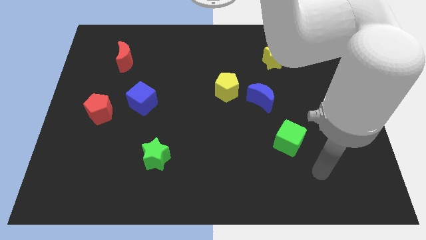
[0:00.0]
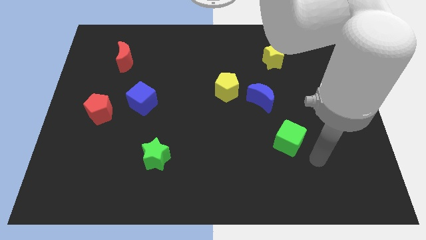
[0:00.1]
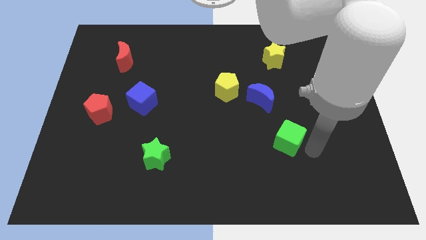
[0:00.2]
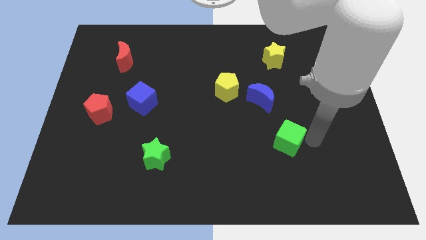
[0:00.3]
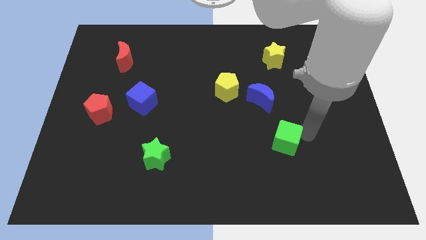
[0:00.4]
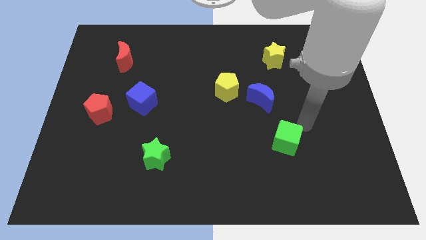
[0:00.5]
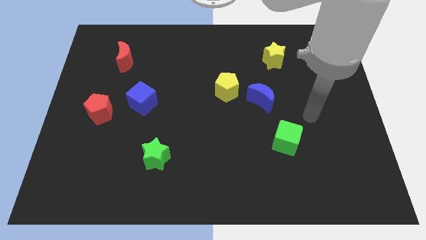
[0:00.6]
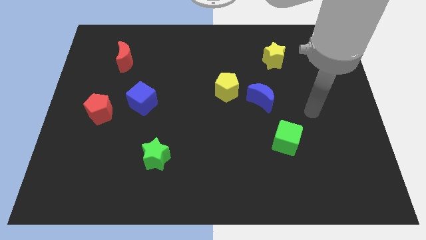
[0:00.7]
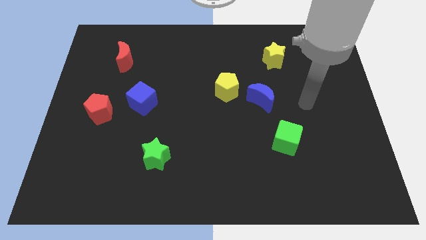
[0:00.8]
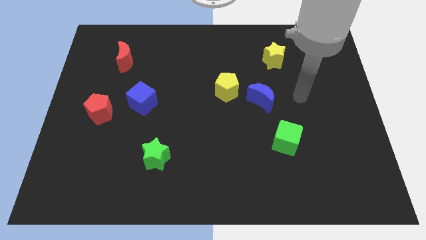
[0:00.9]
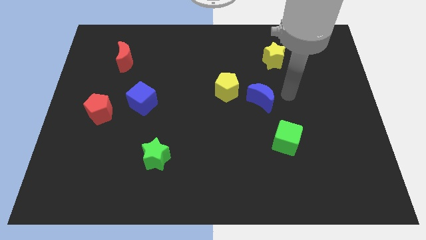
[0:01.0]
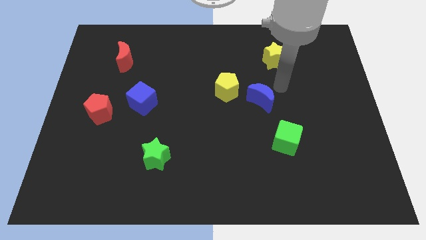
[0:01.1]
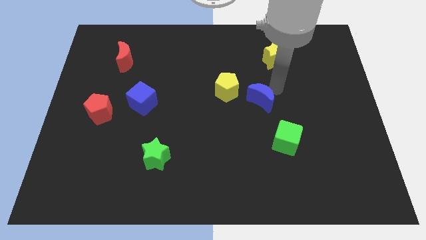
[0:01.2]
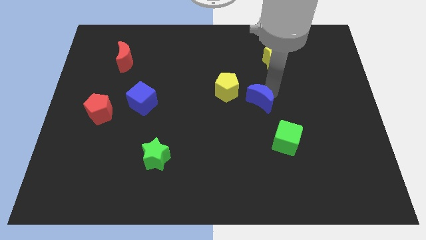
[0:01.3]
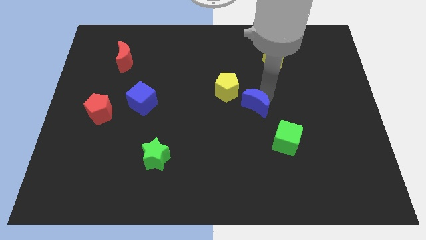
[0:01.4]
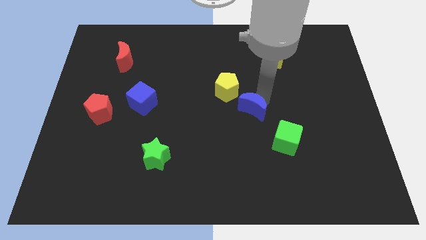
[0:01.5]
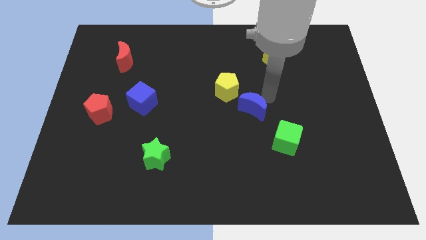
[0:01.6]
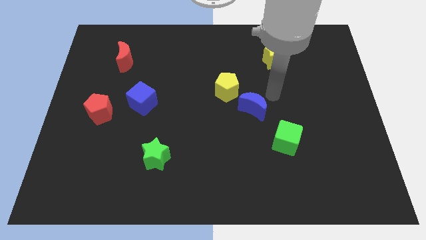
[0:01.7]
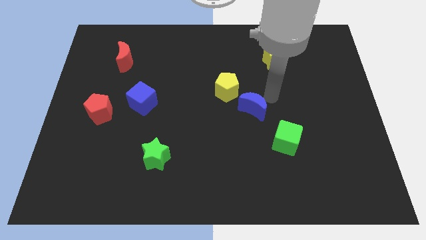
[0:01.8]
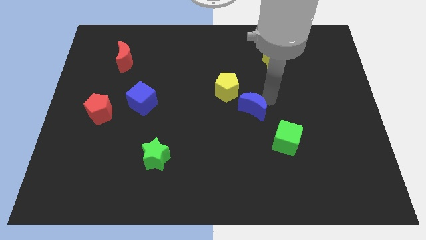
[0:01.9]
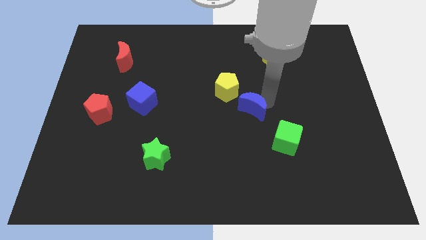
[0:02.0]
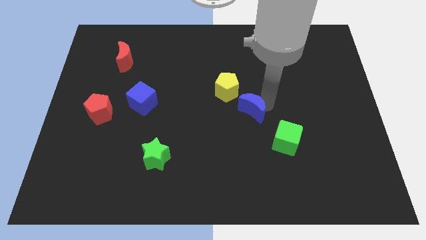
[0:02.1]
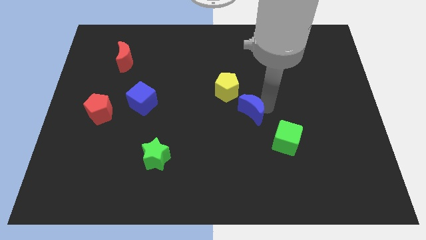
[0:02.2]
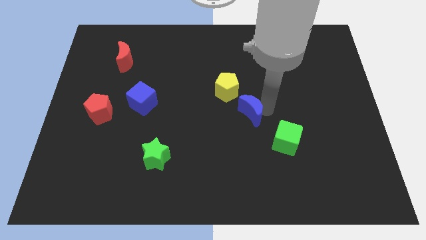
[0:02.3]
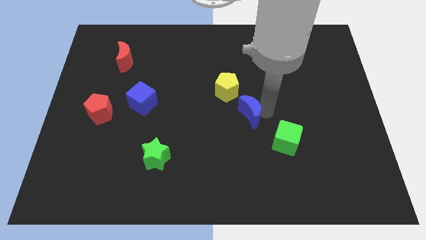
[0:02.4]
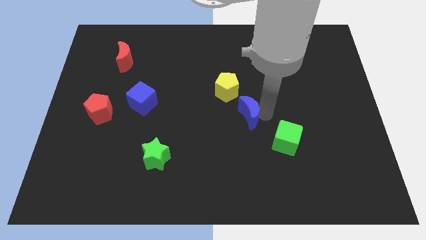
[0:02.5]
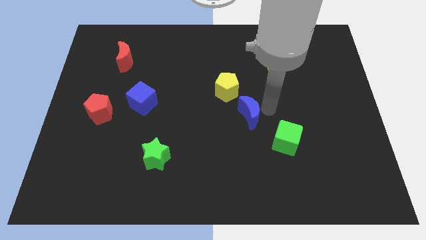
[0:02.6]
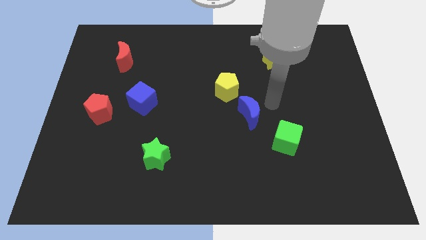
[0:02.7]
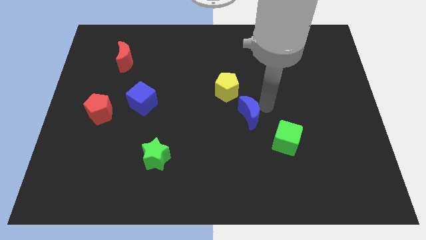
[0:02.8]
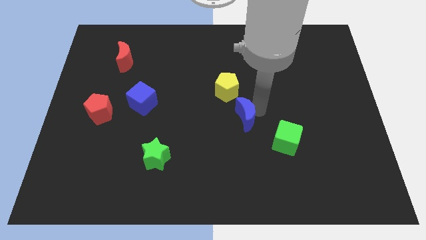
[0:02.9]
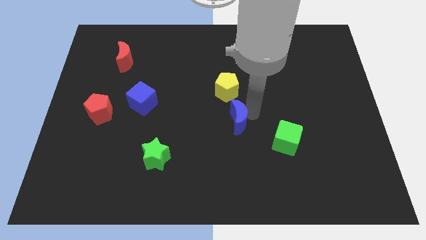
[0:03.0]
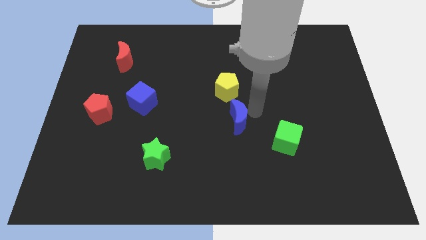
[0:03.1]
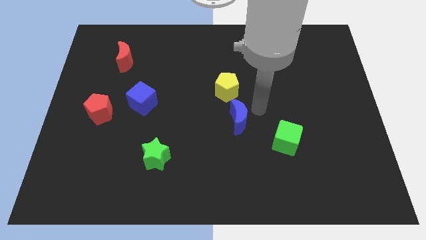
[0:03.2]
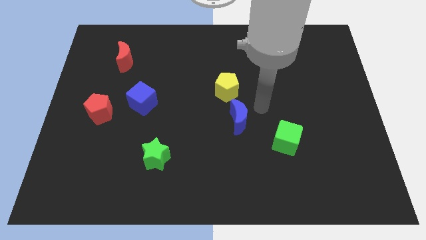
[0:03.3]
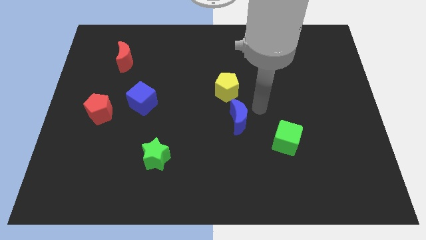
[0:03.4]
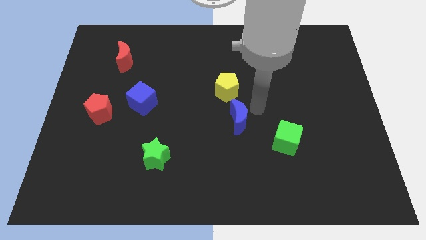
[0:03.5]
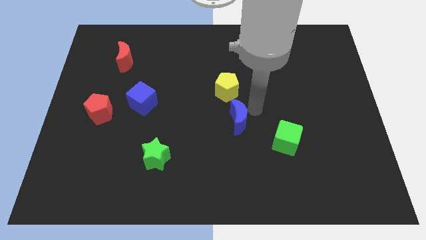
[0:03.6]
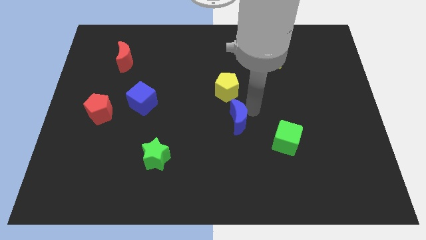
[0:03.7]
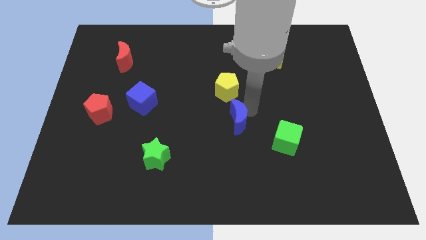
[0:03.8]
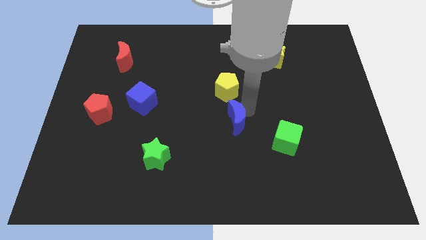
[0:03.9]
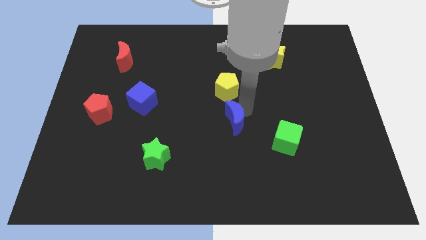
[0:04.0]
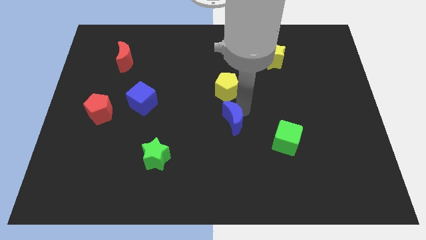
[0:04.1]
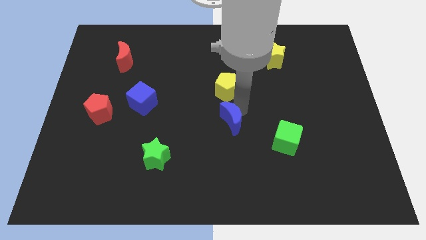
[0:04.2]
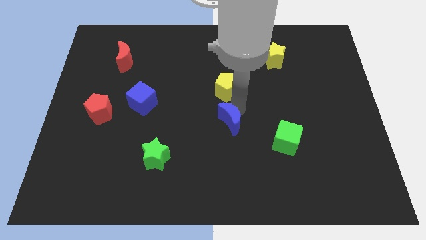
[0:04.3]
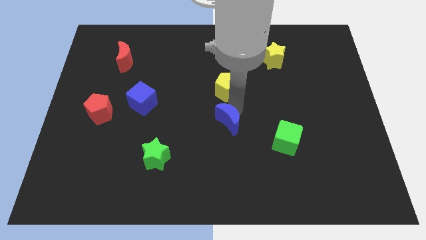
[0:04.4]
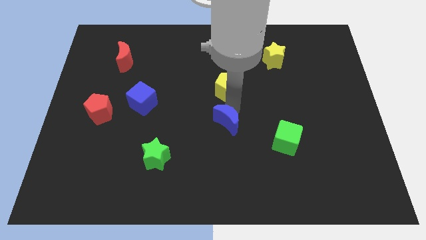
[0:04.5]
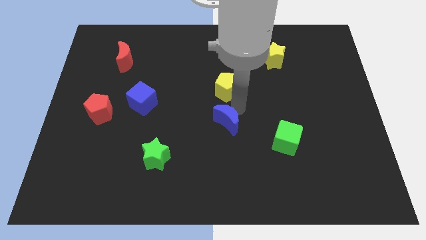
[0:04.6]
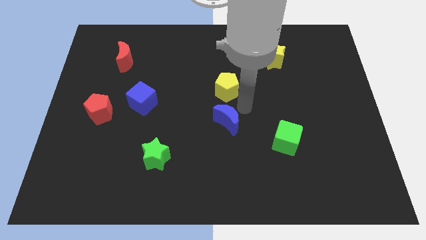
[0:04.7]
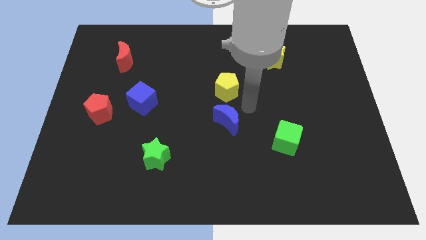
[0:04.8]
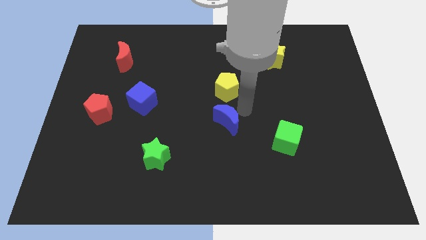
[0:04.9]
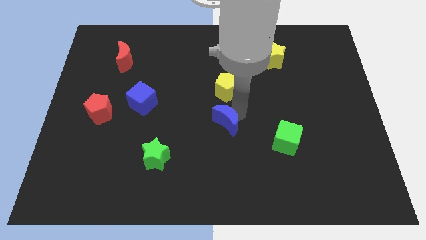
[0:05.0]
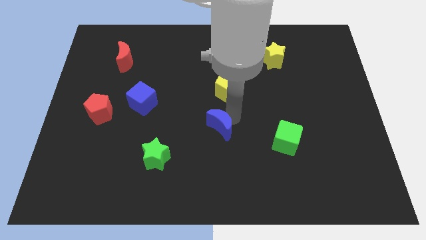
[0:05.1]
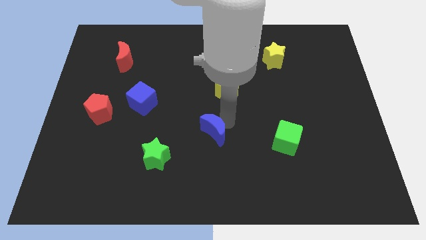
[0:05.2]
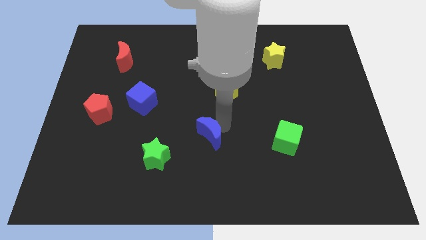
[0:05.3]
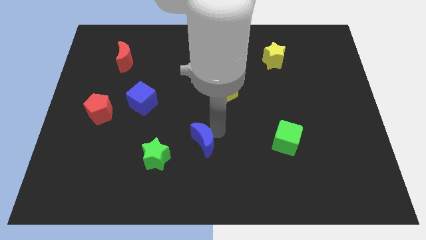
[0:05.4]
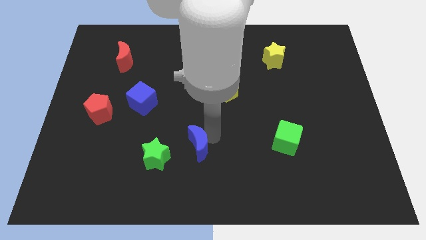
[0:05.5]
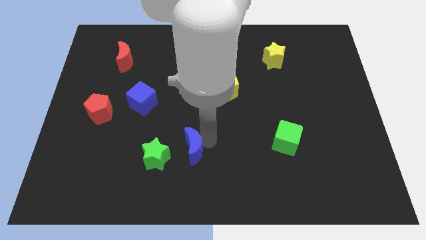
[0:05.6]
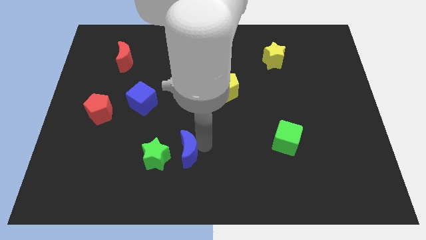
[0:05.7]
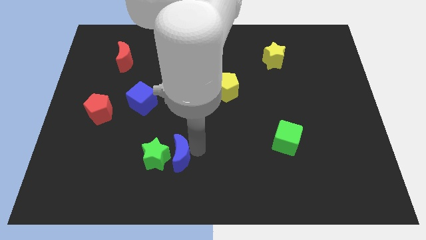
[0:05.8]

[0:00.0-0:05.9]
slide the blue moon close to the green star

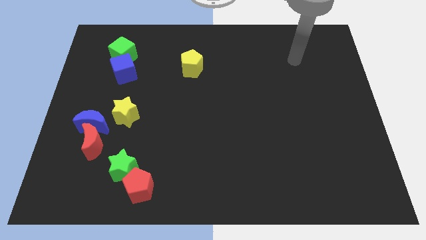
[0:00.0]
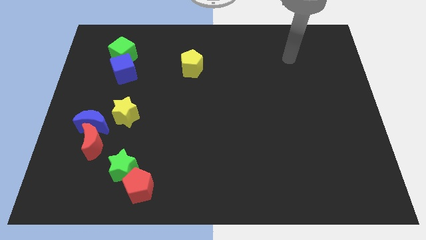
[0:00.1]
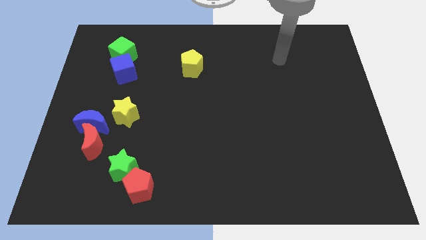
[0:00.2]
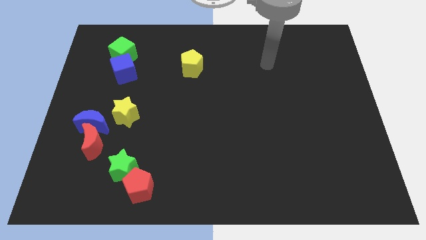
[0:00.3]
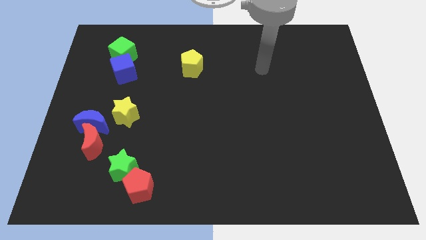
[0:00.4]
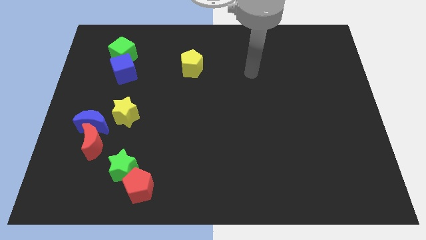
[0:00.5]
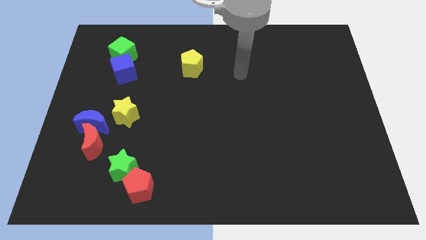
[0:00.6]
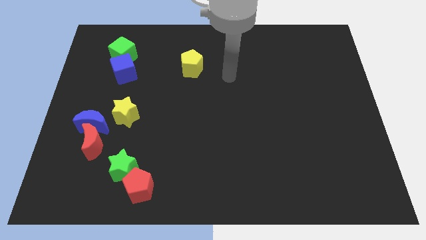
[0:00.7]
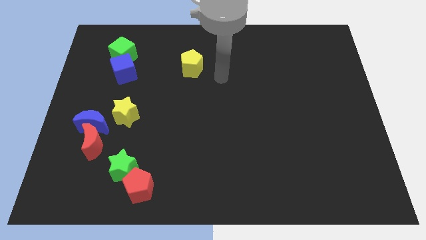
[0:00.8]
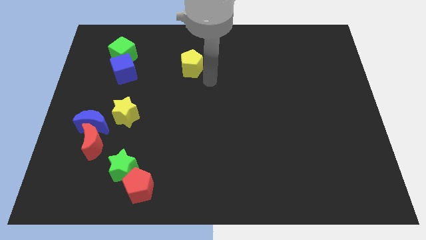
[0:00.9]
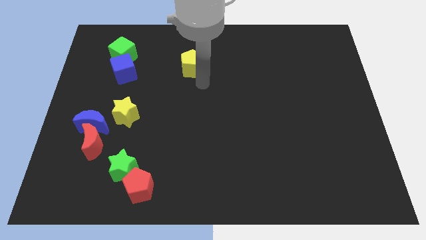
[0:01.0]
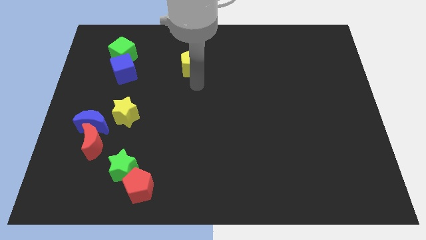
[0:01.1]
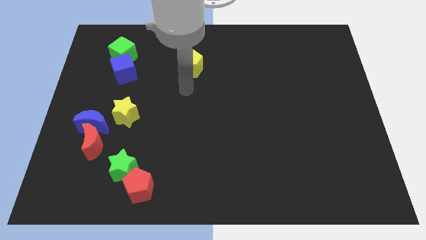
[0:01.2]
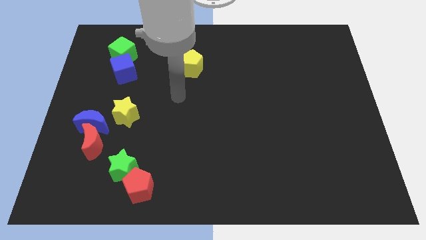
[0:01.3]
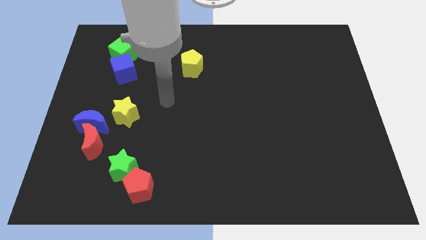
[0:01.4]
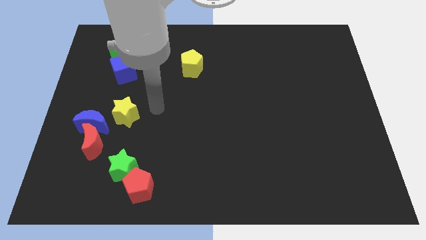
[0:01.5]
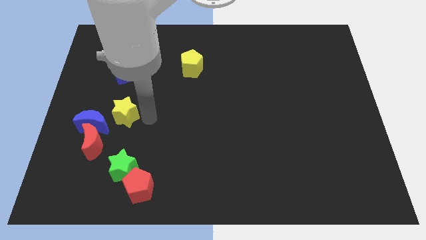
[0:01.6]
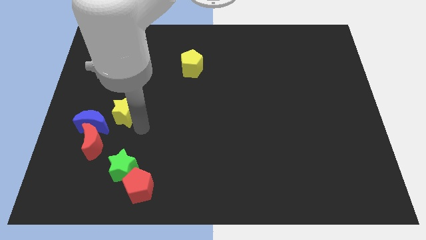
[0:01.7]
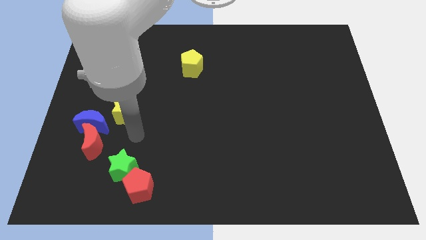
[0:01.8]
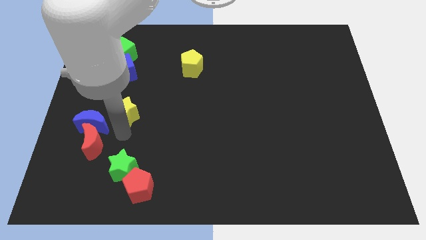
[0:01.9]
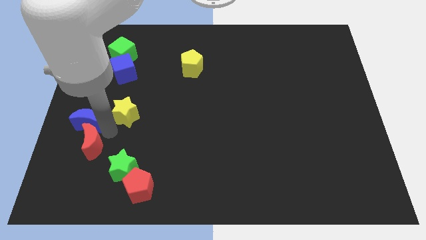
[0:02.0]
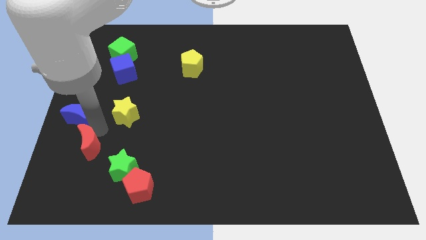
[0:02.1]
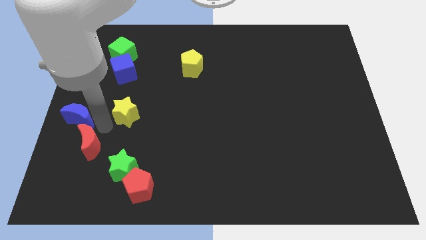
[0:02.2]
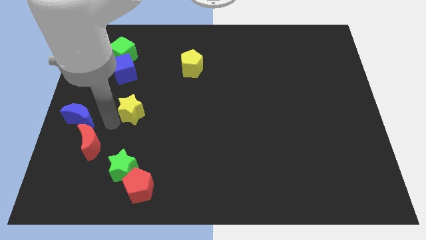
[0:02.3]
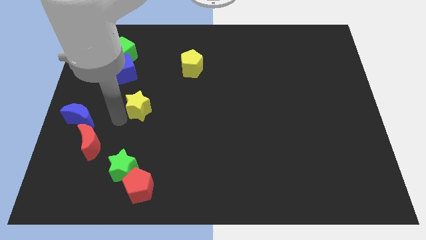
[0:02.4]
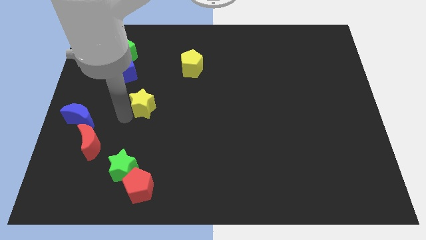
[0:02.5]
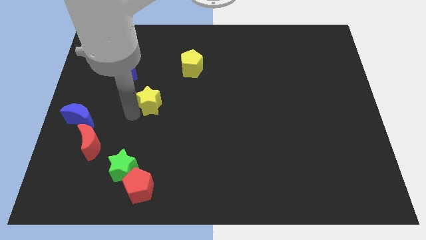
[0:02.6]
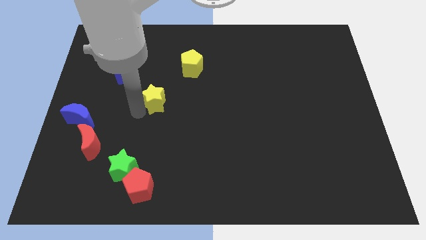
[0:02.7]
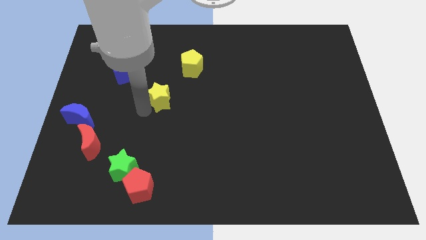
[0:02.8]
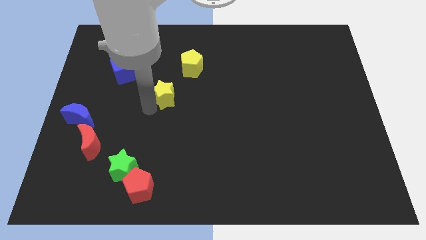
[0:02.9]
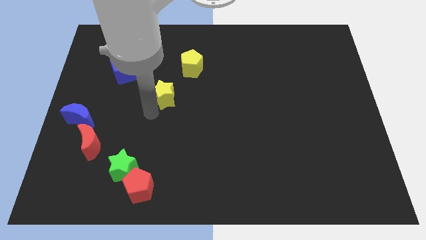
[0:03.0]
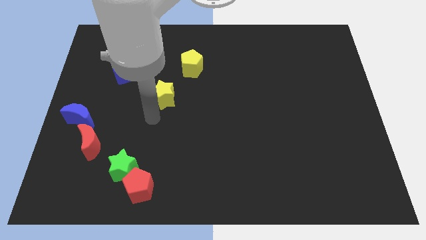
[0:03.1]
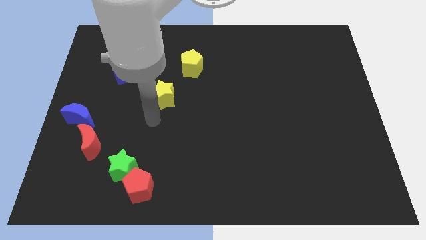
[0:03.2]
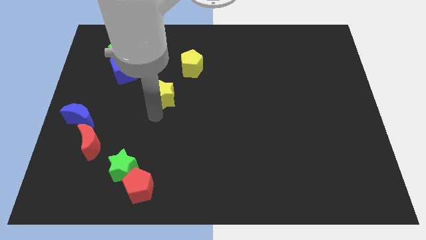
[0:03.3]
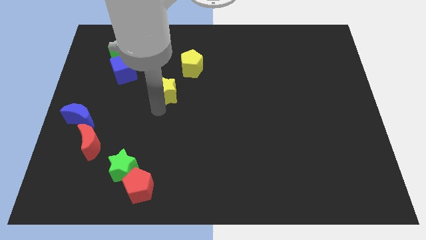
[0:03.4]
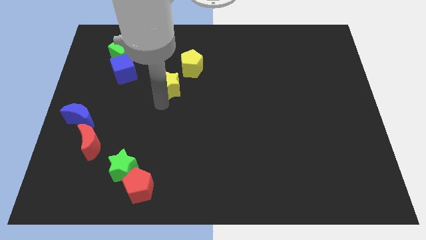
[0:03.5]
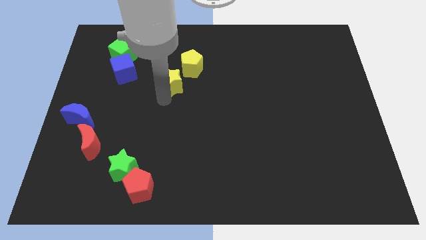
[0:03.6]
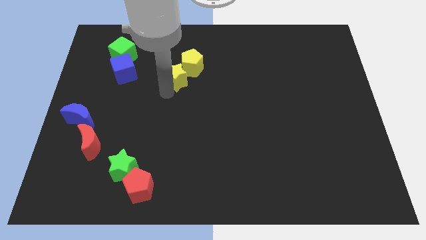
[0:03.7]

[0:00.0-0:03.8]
put the yellow star close to the yellow pentagon
